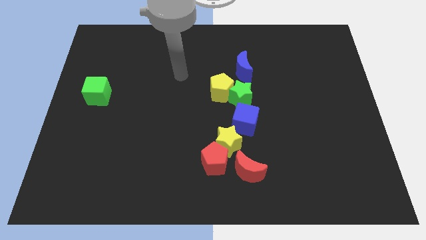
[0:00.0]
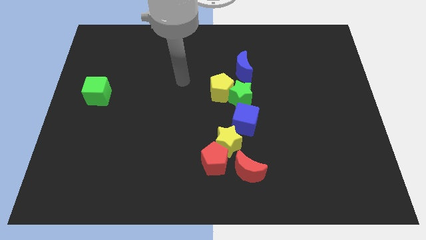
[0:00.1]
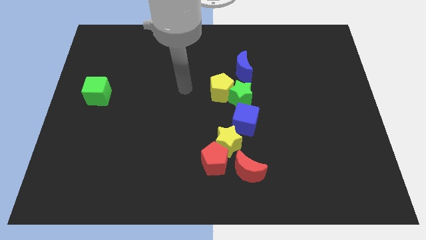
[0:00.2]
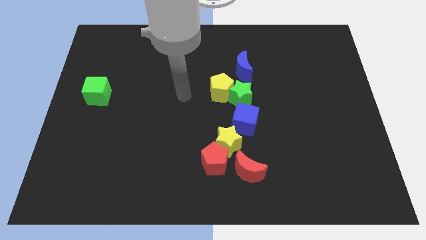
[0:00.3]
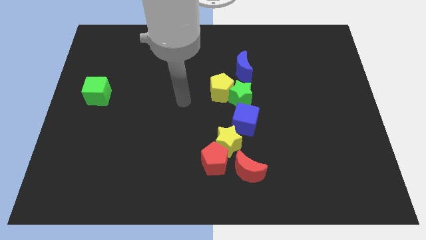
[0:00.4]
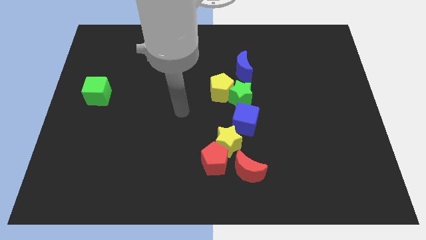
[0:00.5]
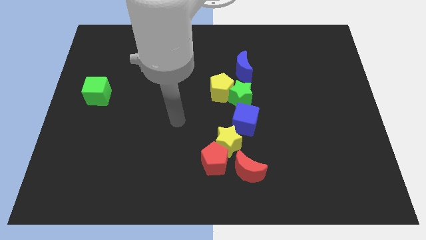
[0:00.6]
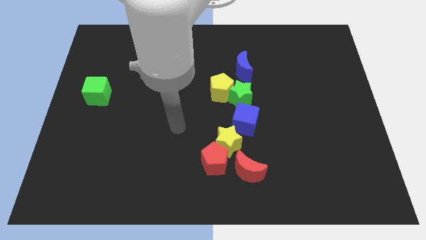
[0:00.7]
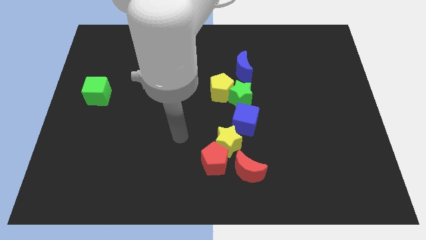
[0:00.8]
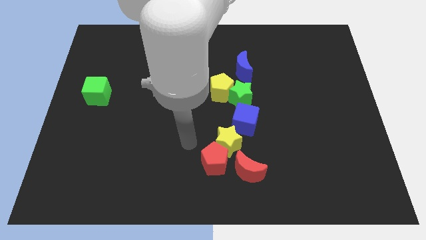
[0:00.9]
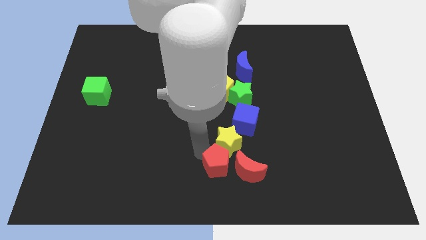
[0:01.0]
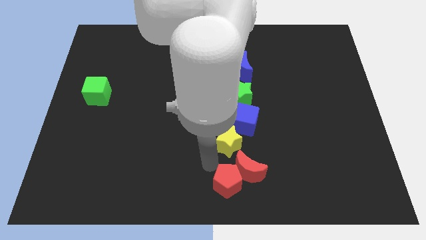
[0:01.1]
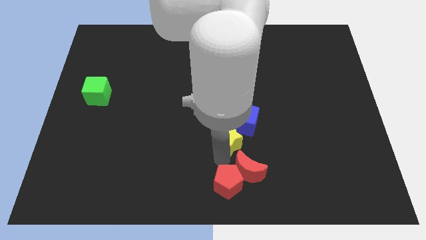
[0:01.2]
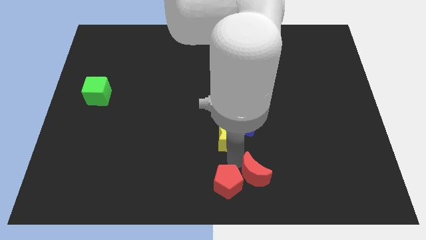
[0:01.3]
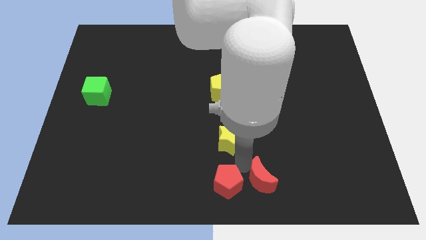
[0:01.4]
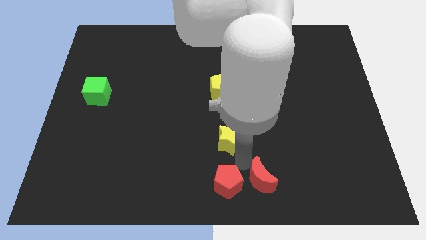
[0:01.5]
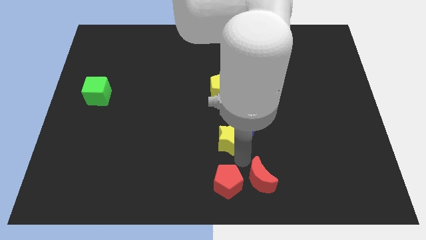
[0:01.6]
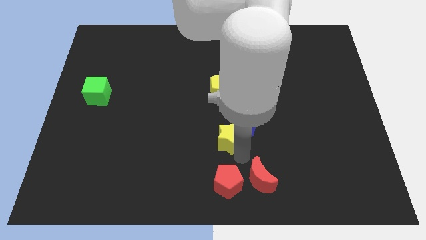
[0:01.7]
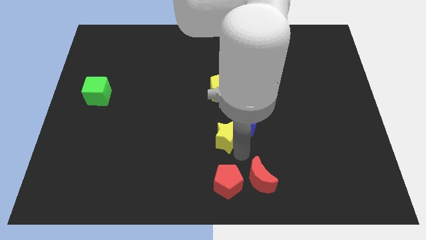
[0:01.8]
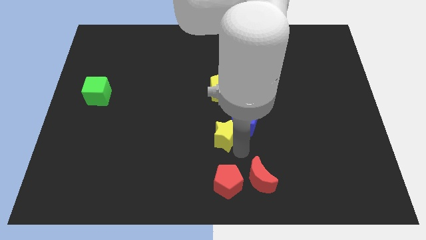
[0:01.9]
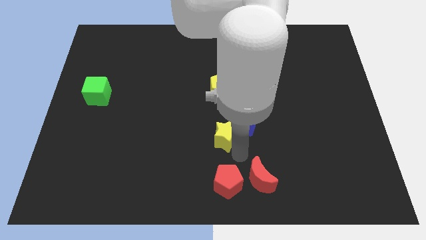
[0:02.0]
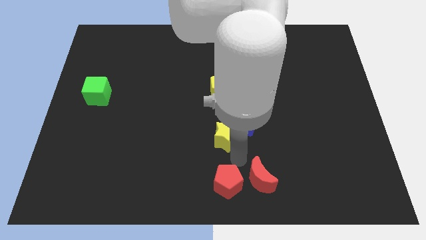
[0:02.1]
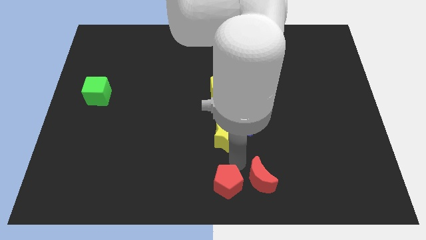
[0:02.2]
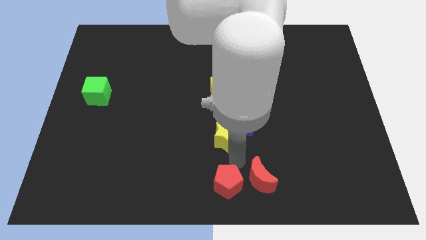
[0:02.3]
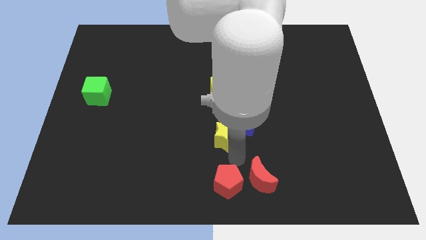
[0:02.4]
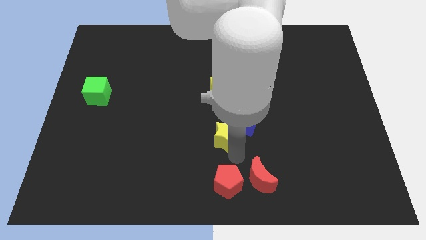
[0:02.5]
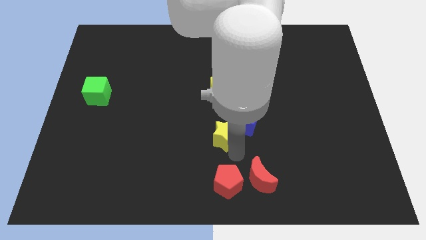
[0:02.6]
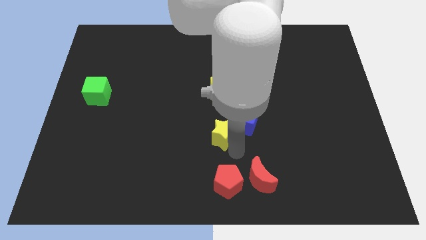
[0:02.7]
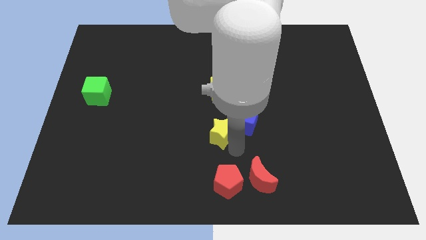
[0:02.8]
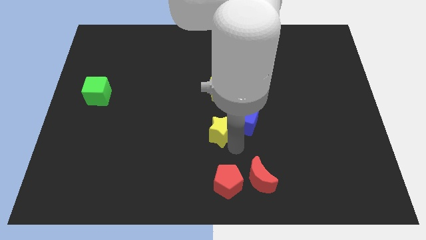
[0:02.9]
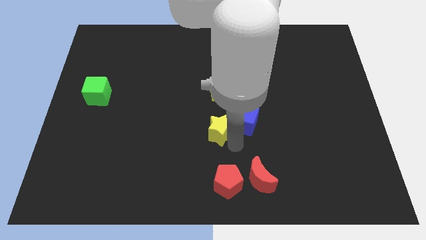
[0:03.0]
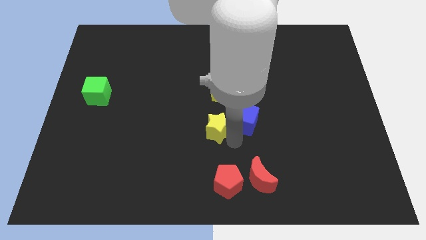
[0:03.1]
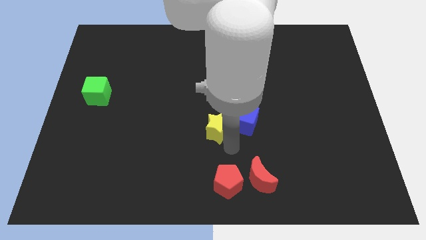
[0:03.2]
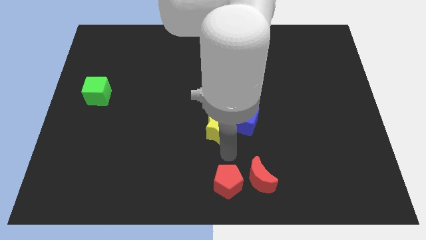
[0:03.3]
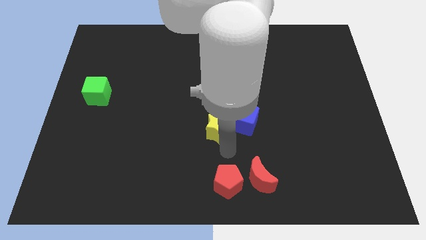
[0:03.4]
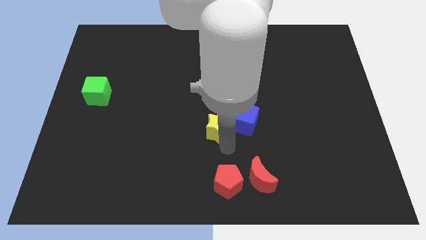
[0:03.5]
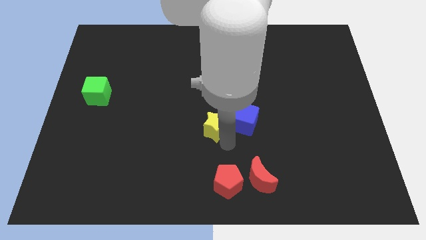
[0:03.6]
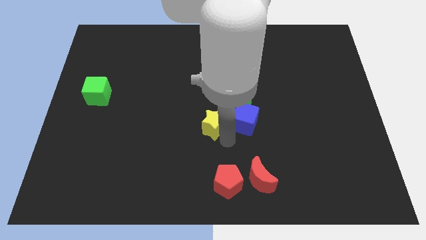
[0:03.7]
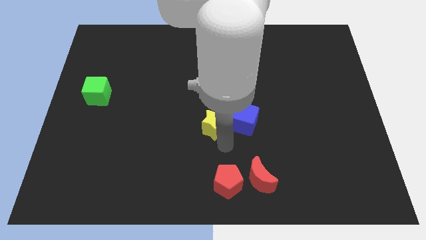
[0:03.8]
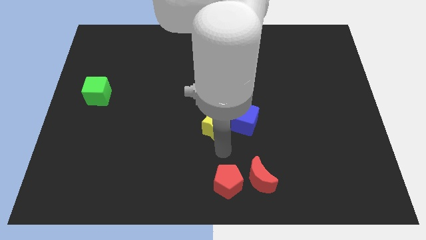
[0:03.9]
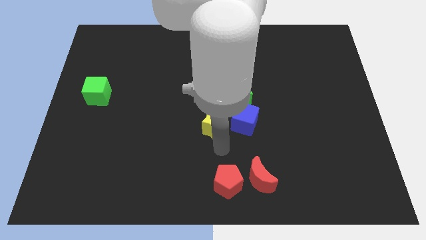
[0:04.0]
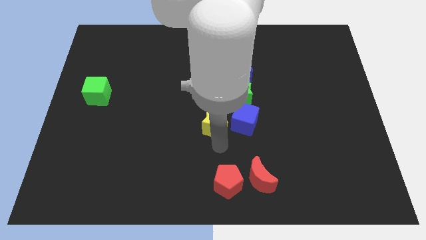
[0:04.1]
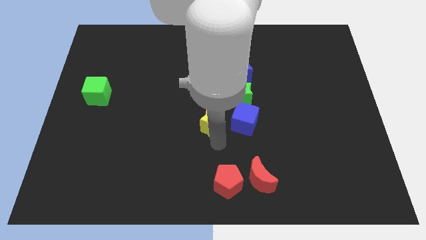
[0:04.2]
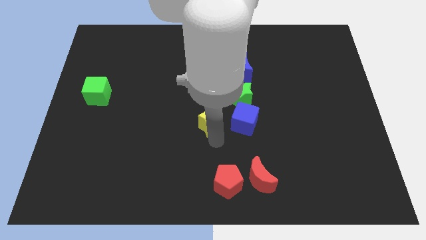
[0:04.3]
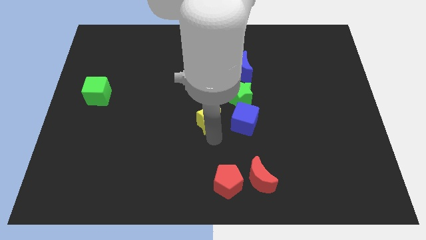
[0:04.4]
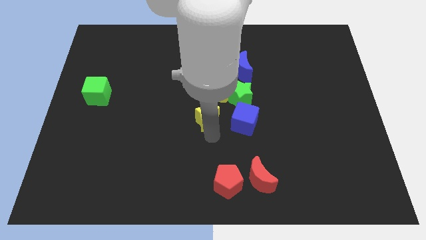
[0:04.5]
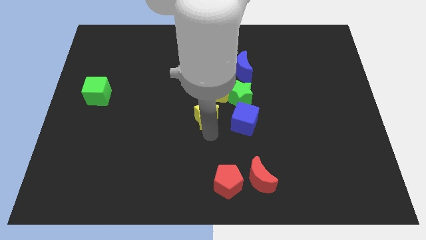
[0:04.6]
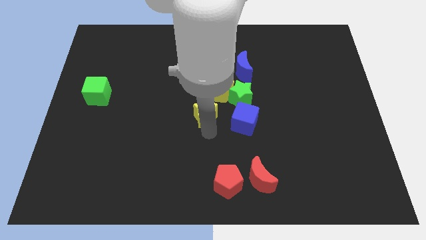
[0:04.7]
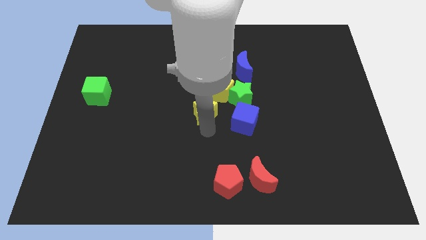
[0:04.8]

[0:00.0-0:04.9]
move the yellow star a little up

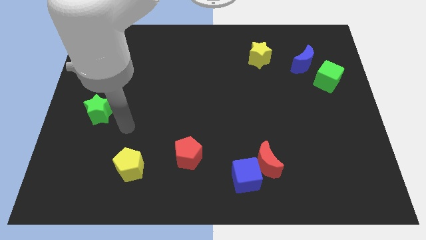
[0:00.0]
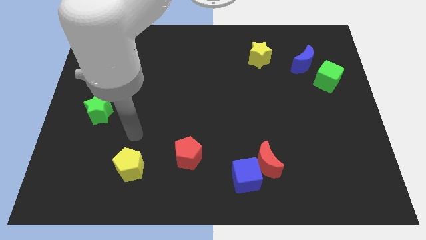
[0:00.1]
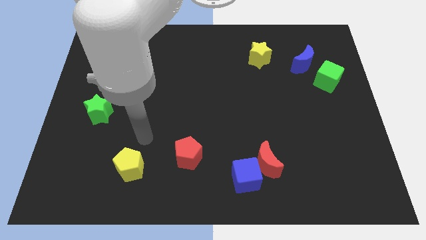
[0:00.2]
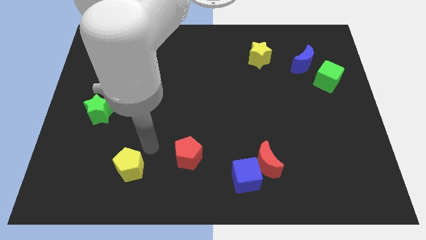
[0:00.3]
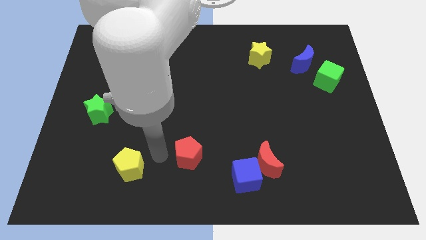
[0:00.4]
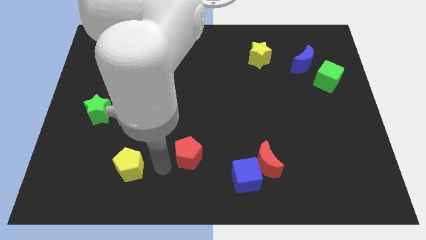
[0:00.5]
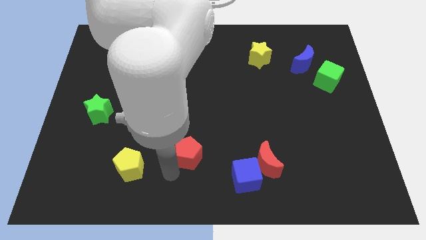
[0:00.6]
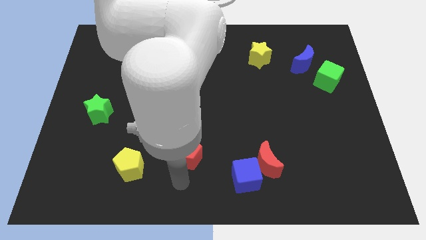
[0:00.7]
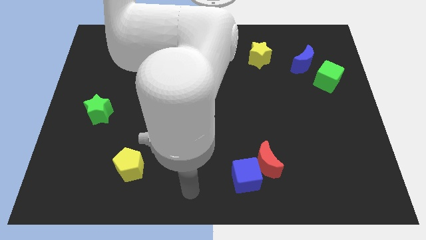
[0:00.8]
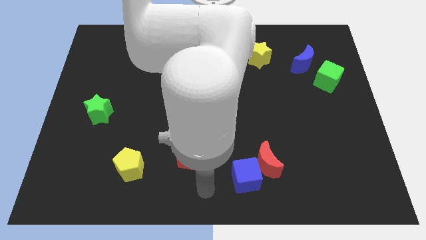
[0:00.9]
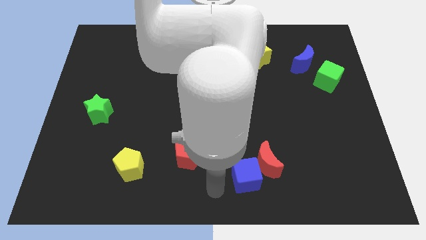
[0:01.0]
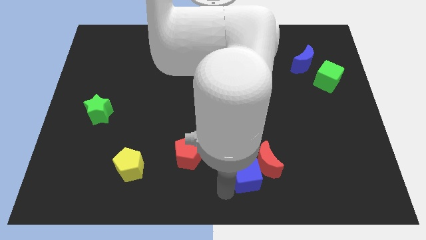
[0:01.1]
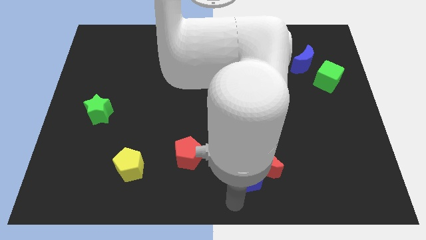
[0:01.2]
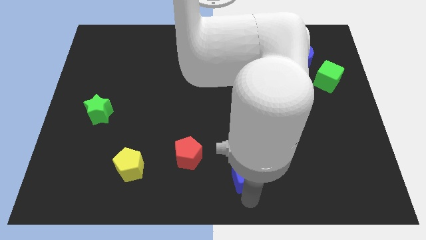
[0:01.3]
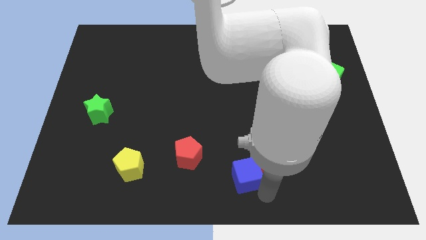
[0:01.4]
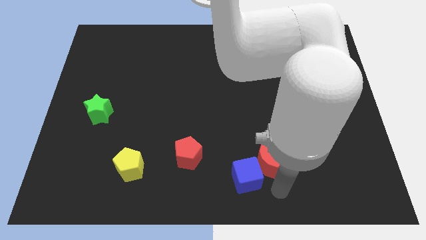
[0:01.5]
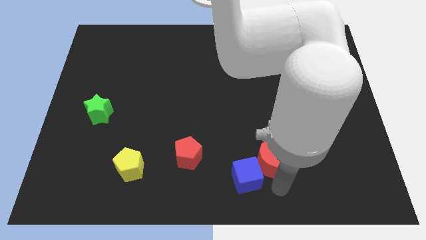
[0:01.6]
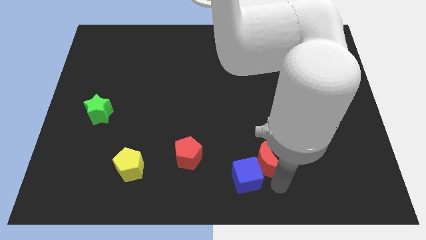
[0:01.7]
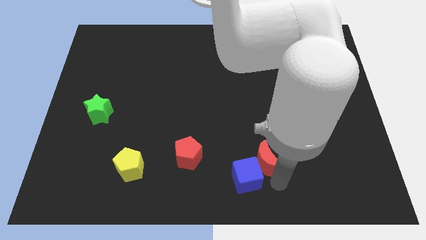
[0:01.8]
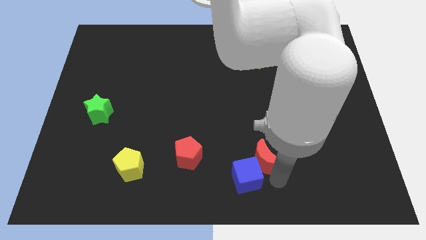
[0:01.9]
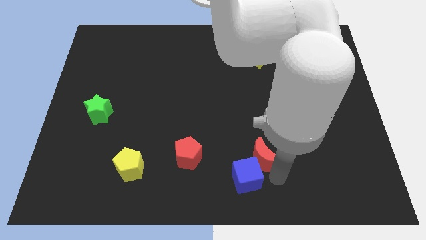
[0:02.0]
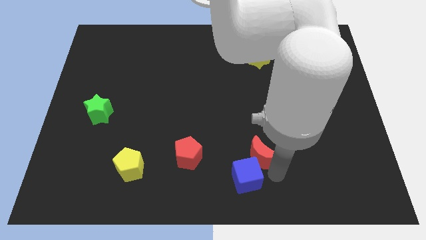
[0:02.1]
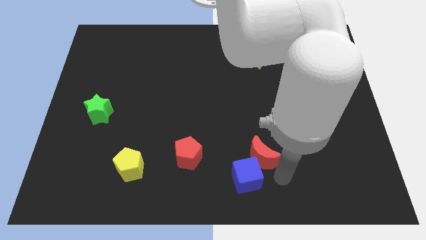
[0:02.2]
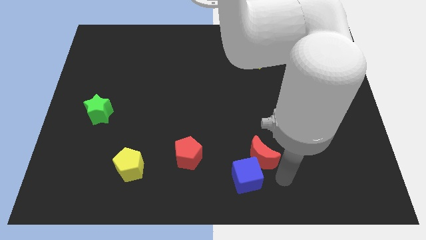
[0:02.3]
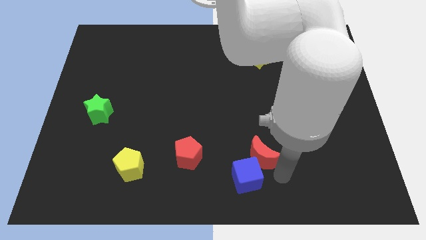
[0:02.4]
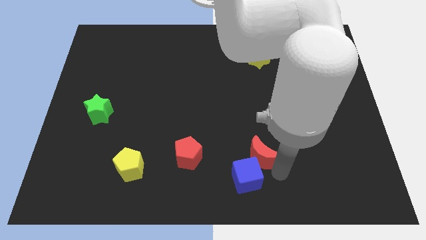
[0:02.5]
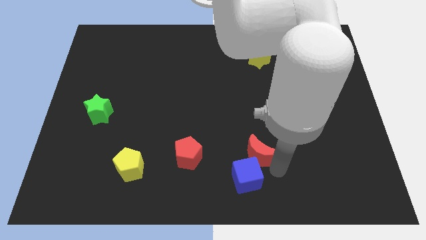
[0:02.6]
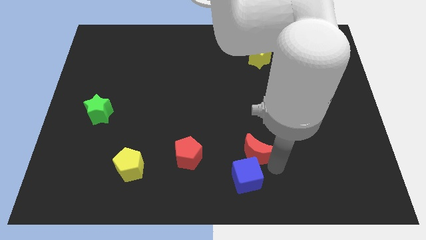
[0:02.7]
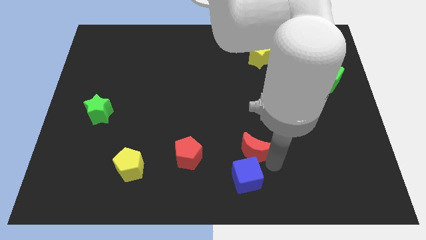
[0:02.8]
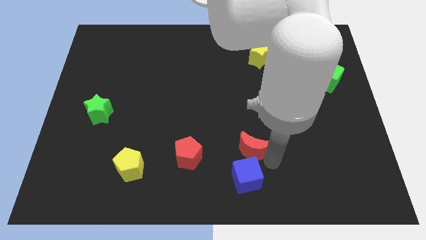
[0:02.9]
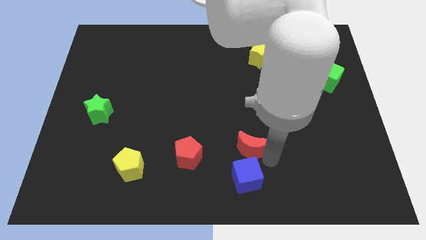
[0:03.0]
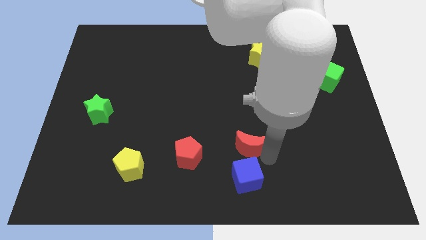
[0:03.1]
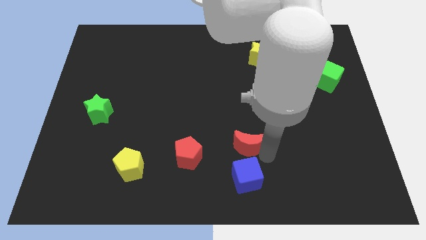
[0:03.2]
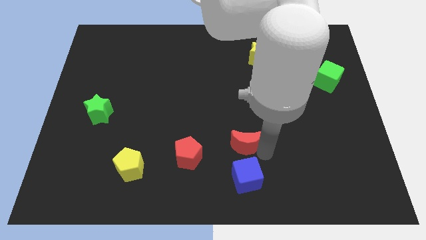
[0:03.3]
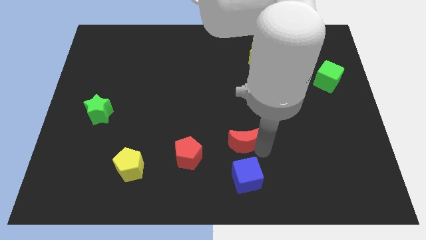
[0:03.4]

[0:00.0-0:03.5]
move the red moon upwards and left somewhat
